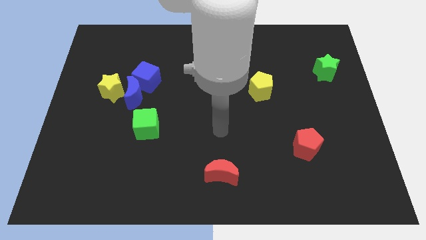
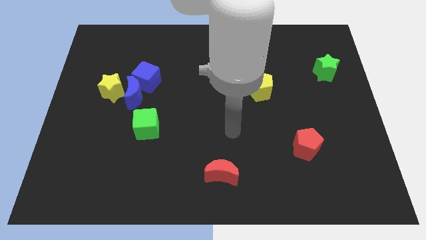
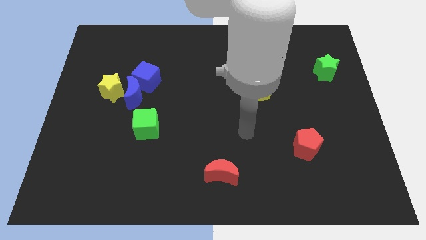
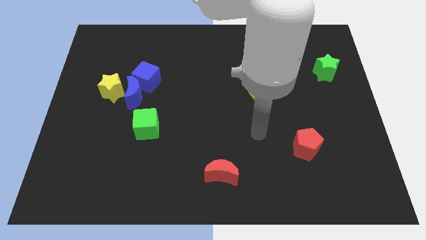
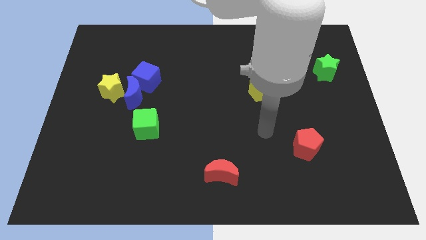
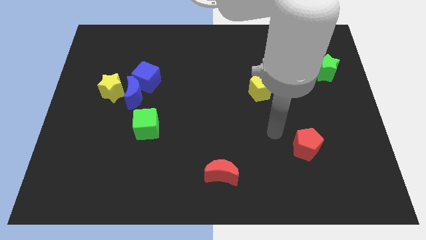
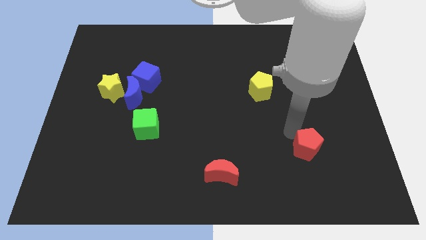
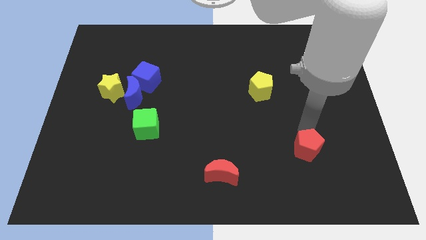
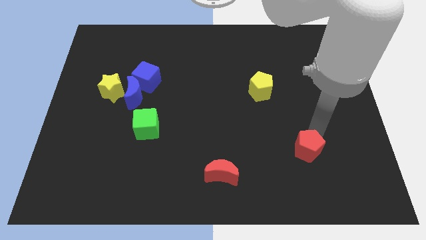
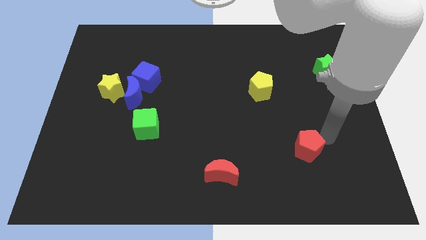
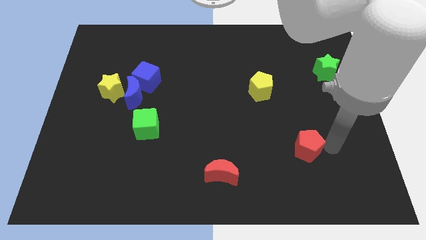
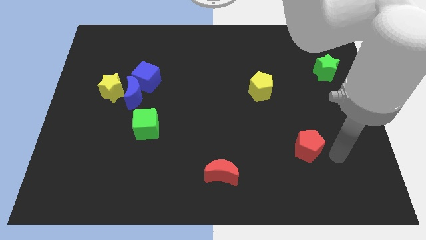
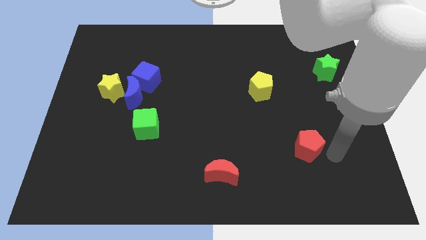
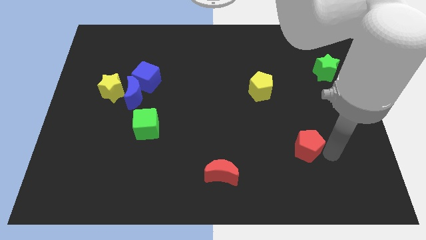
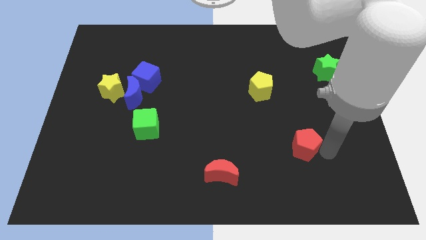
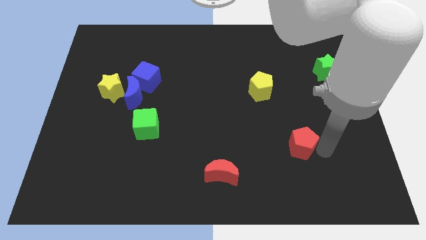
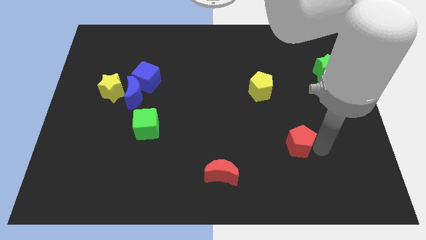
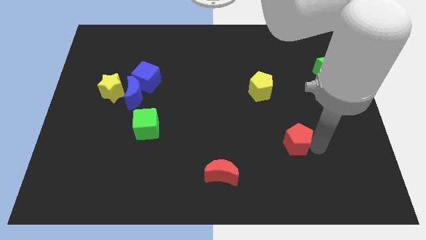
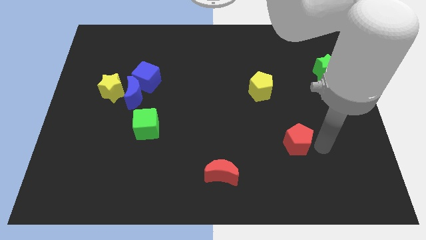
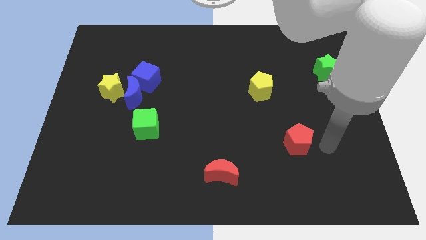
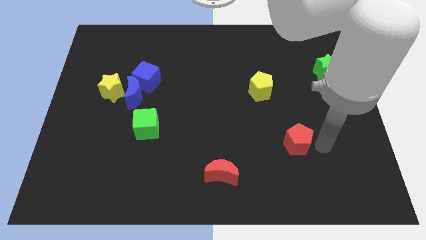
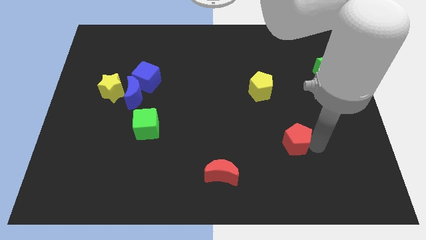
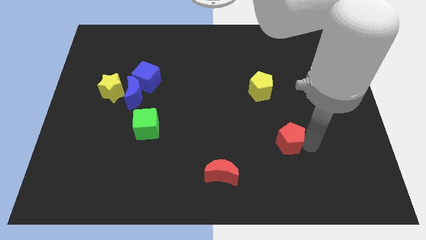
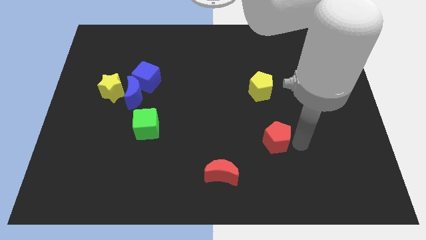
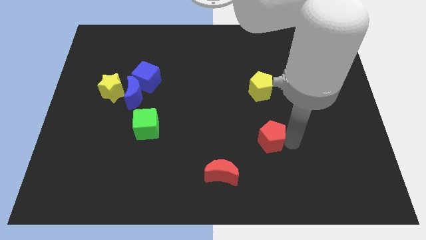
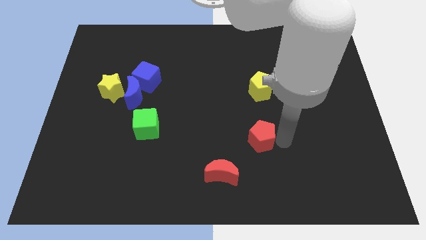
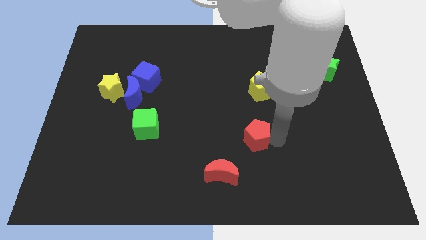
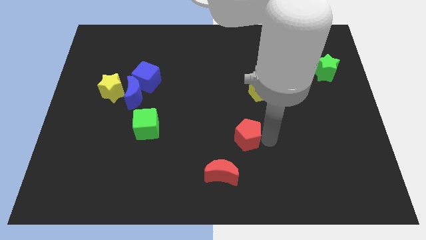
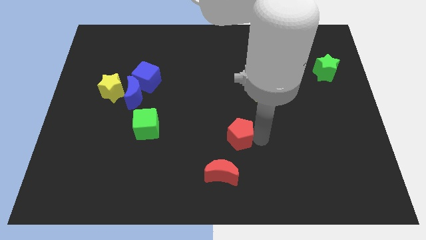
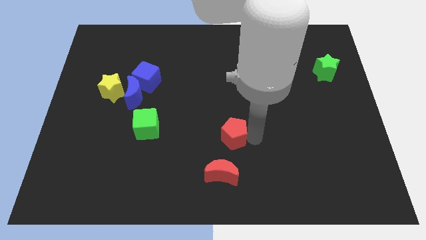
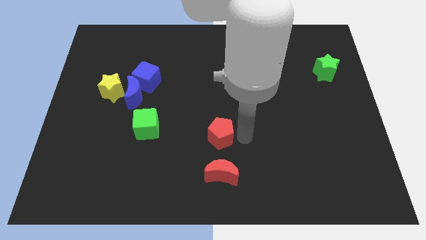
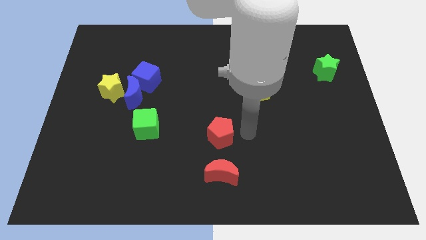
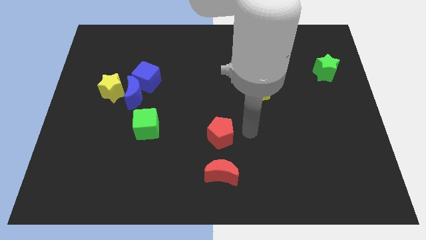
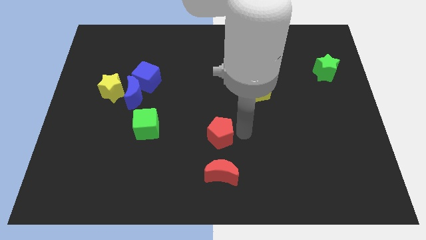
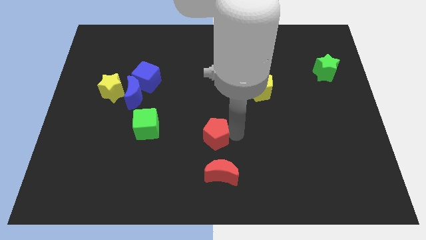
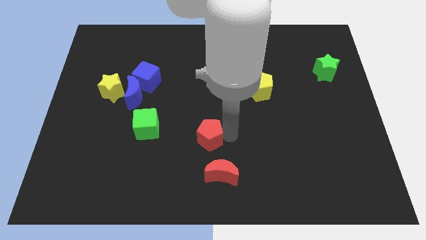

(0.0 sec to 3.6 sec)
move the red pentagon left

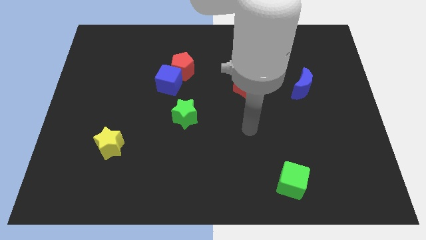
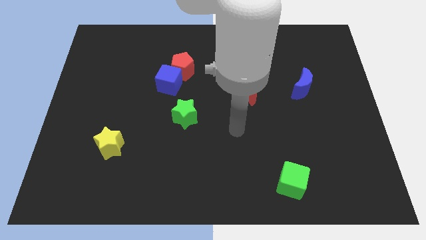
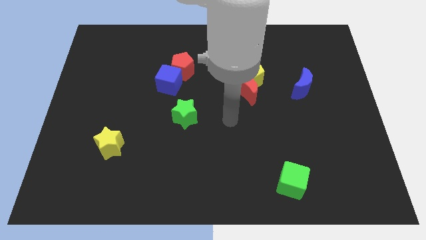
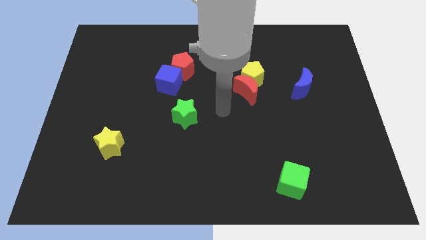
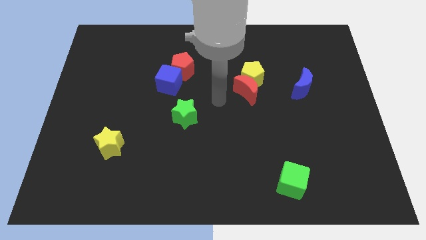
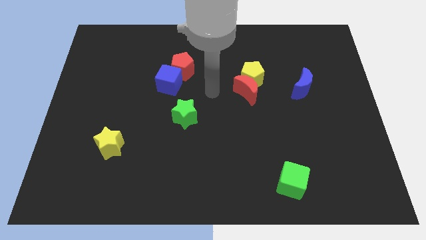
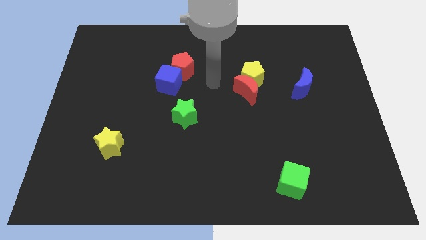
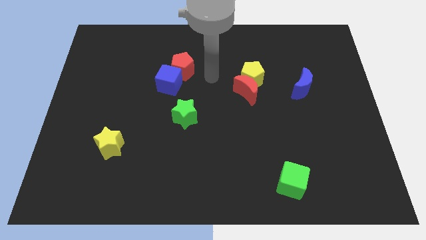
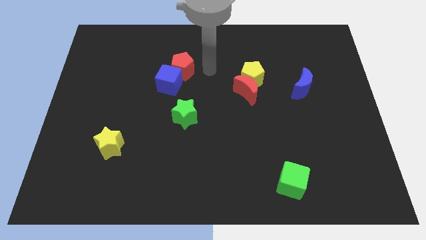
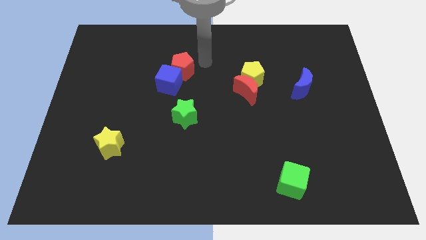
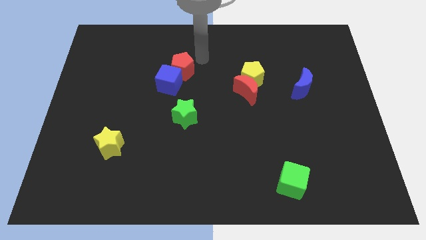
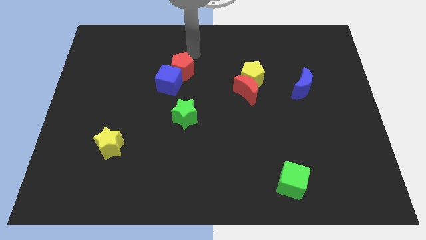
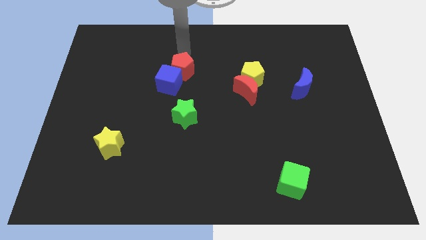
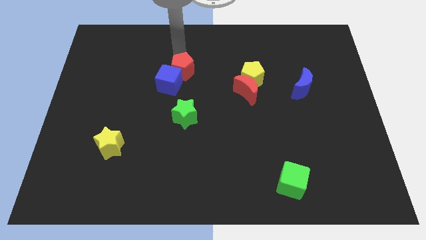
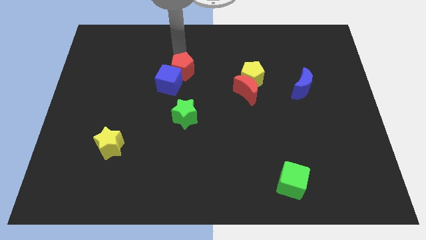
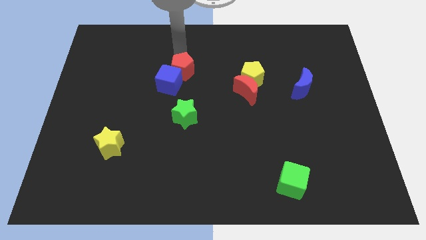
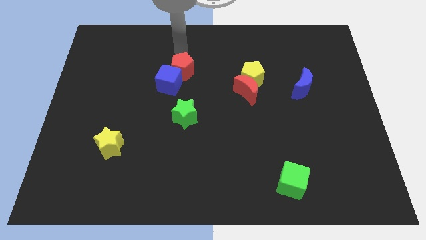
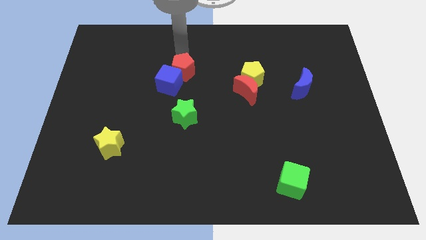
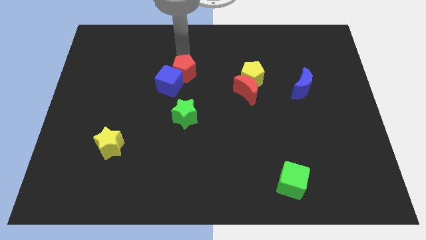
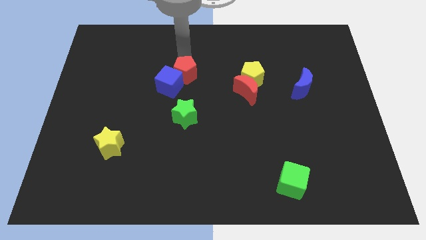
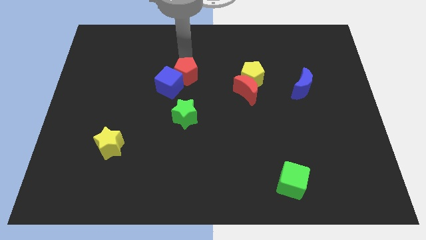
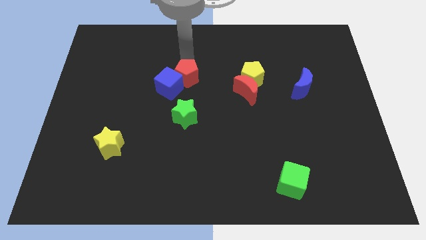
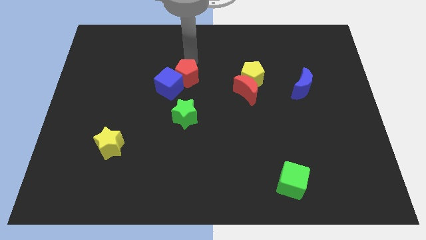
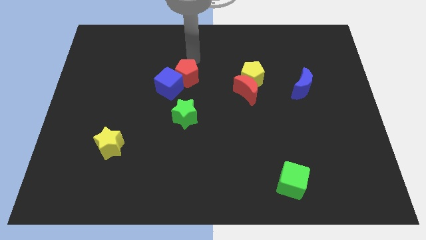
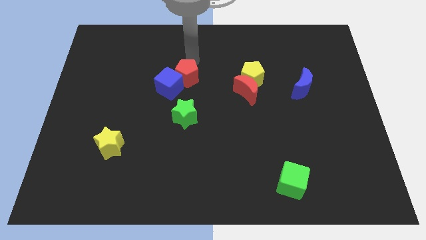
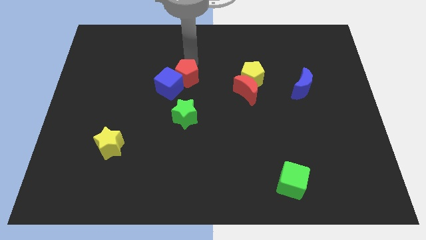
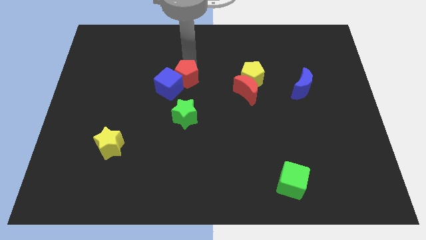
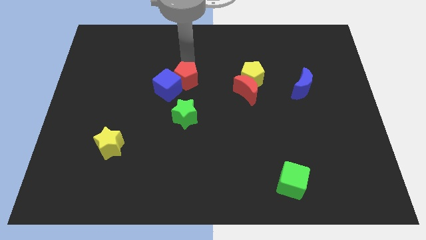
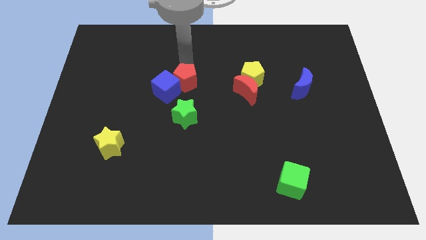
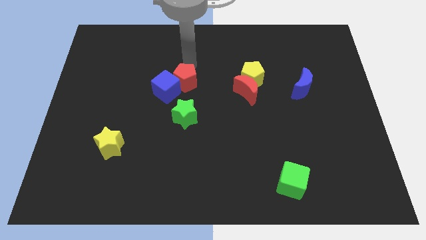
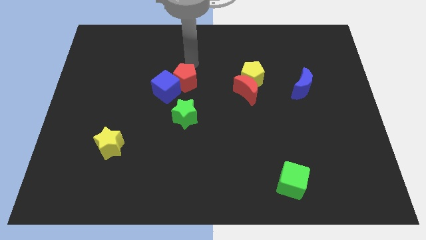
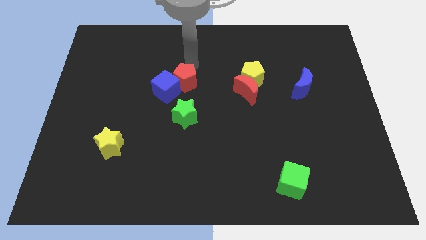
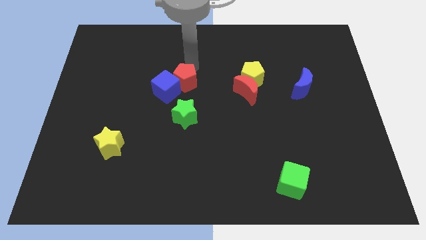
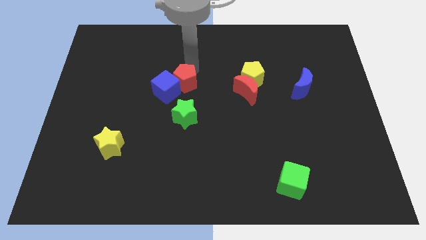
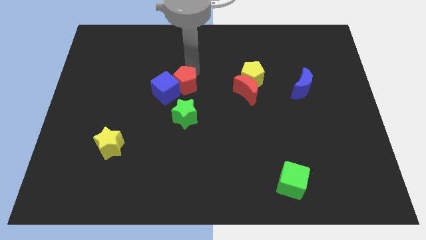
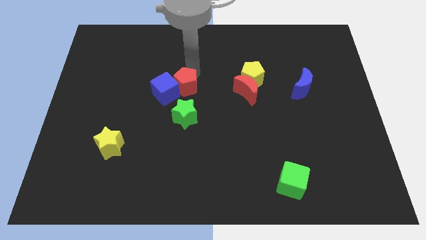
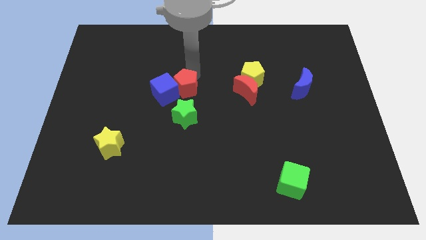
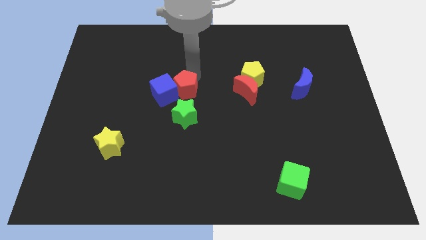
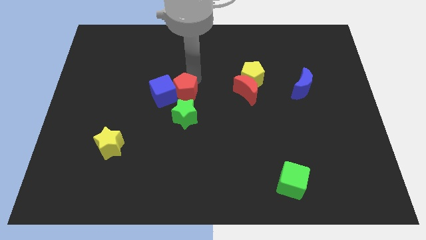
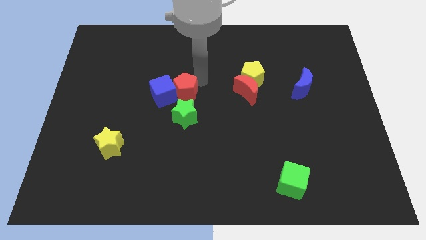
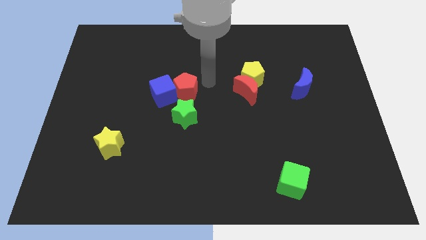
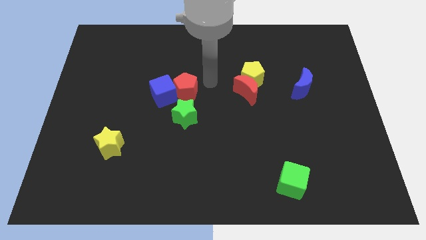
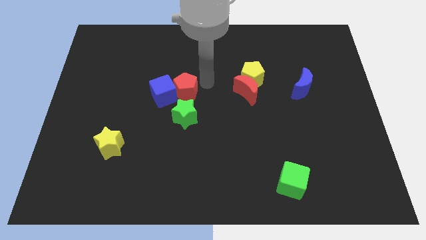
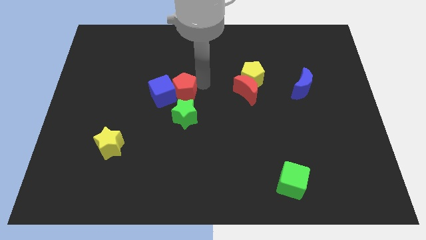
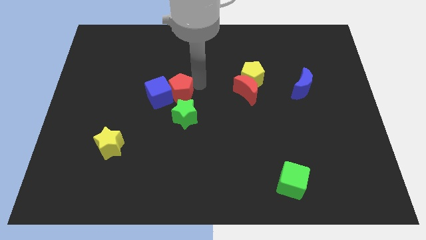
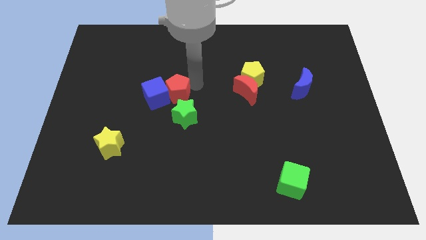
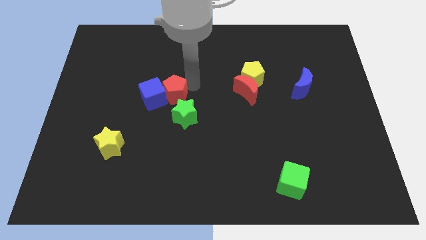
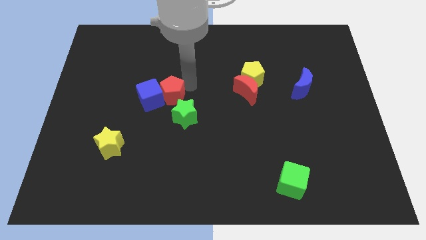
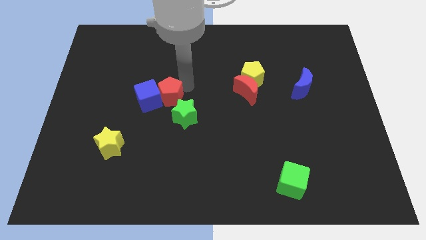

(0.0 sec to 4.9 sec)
slide the red pentagon down and to the left diagonally a little bit
